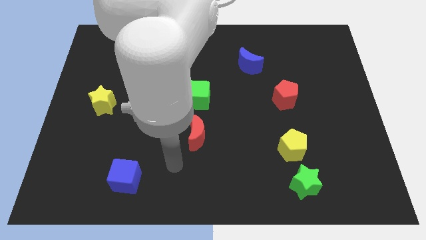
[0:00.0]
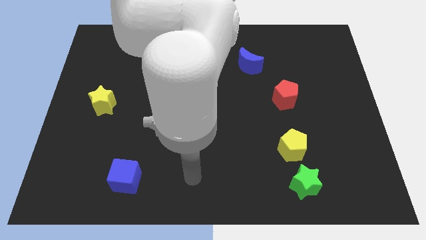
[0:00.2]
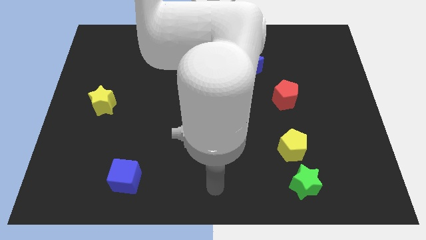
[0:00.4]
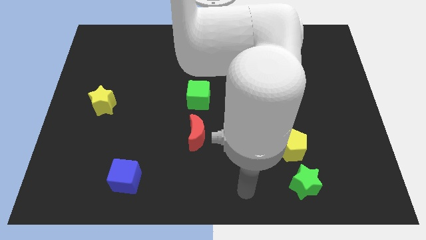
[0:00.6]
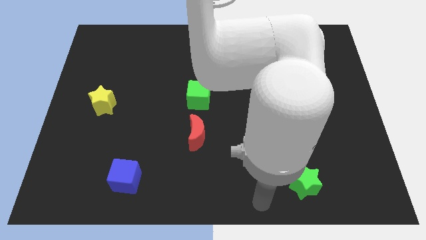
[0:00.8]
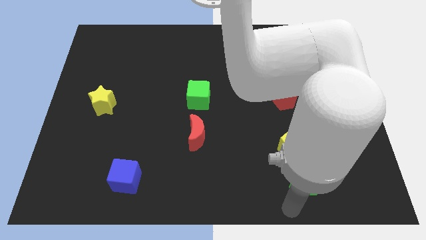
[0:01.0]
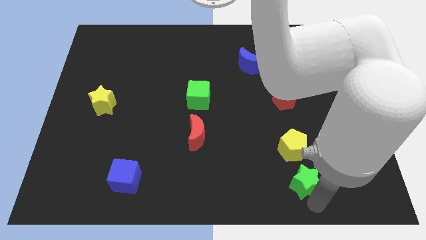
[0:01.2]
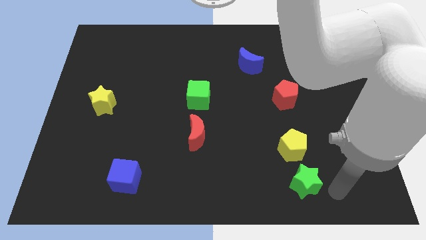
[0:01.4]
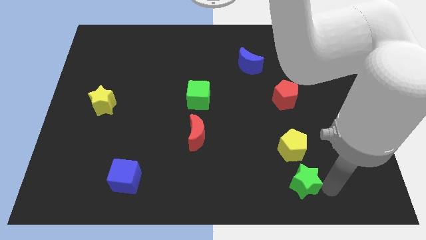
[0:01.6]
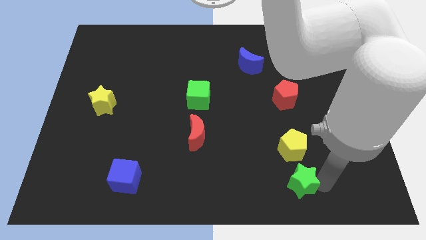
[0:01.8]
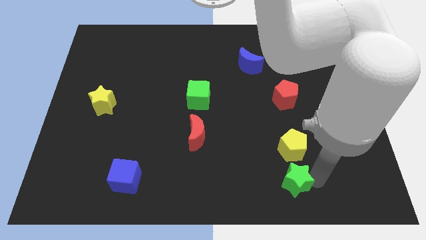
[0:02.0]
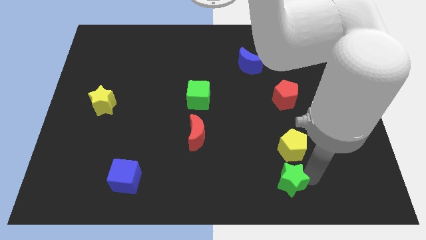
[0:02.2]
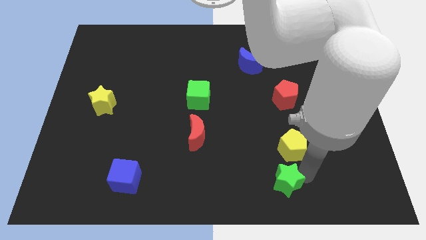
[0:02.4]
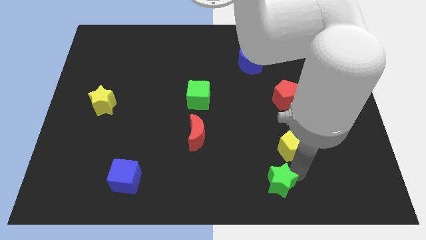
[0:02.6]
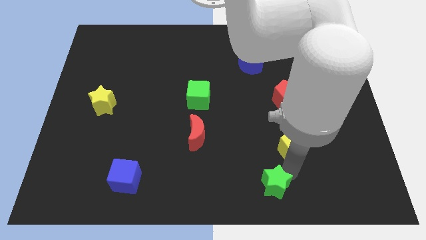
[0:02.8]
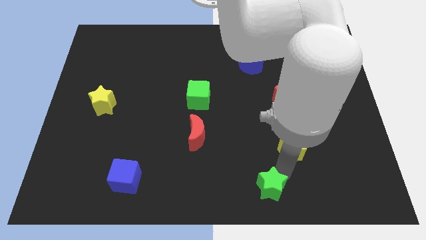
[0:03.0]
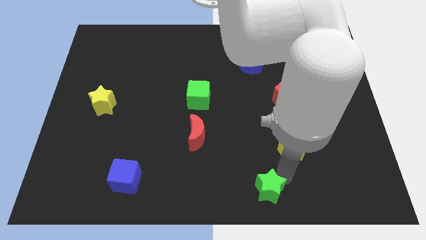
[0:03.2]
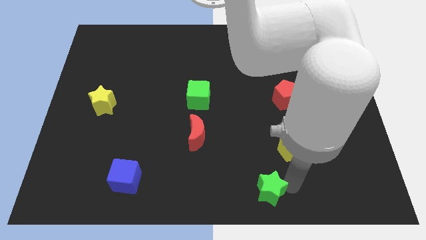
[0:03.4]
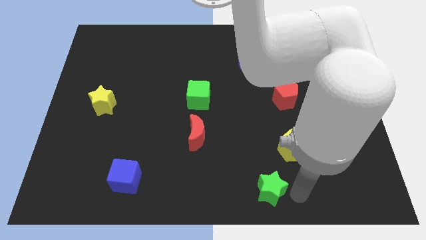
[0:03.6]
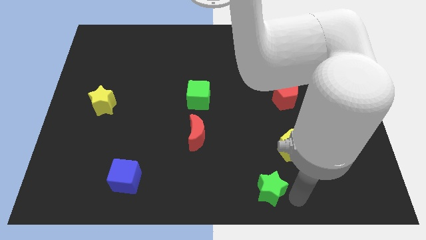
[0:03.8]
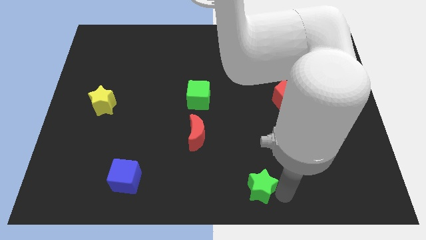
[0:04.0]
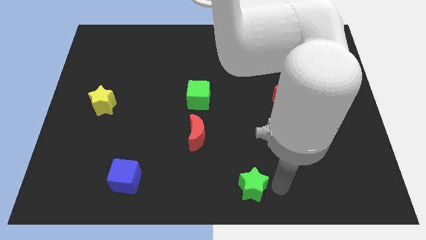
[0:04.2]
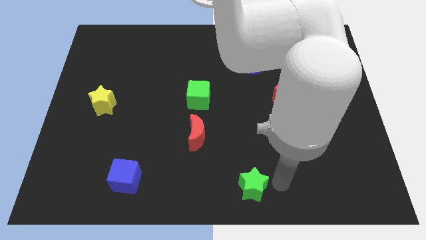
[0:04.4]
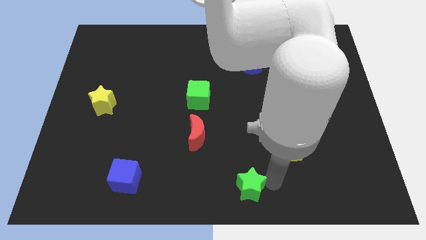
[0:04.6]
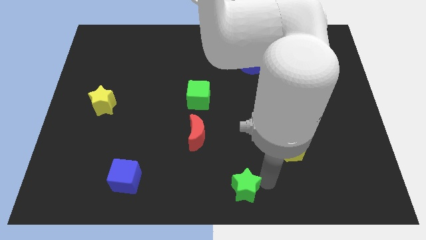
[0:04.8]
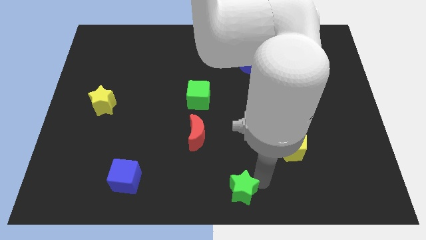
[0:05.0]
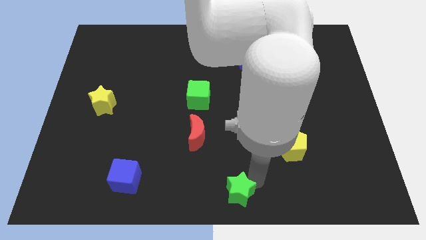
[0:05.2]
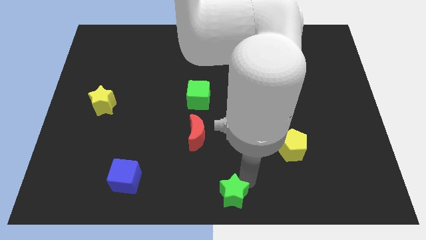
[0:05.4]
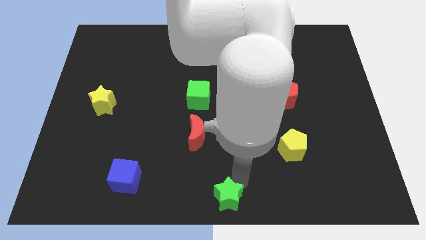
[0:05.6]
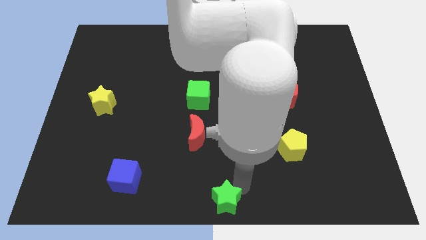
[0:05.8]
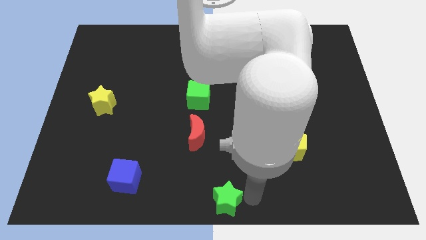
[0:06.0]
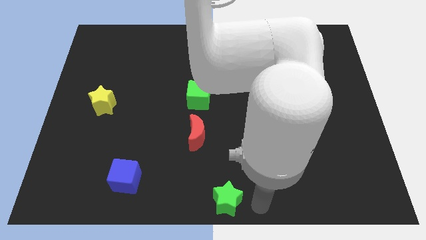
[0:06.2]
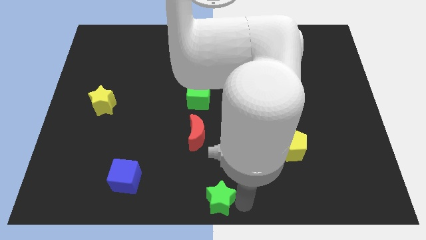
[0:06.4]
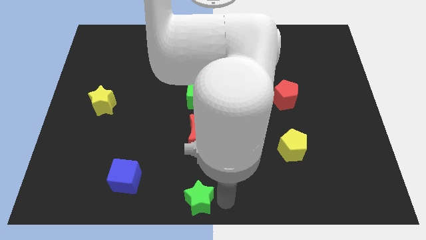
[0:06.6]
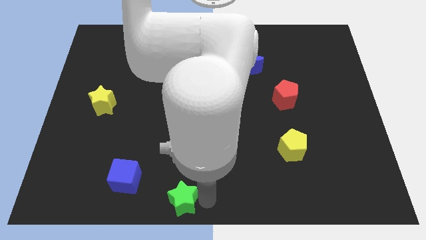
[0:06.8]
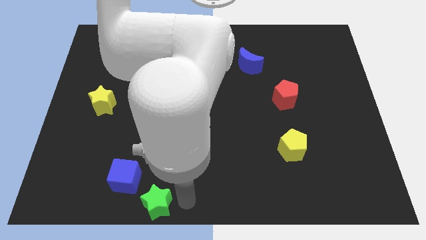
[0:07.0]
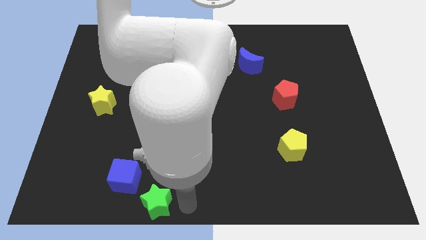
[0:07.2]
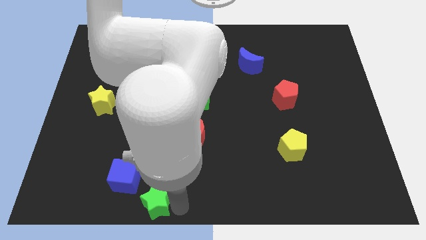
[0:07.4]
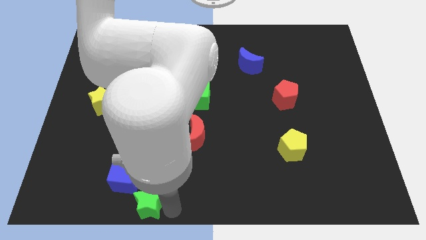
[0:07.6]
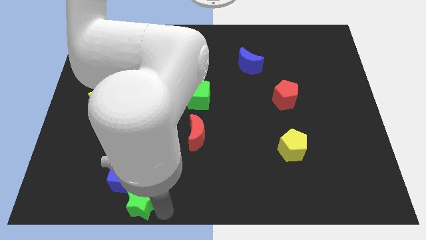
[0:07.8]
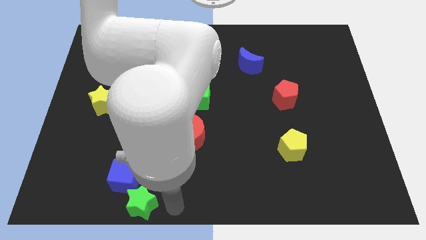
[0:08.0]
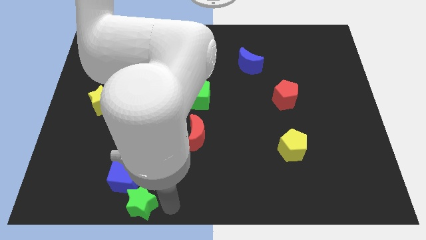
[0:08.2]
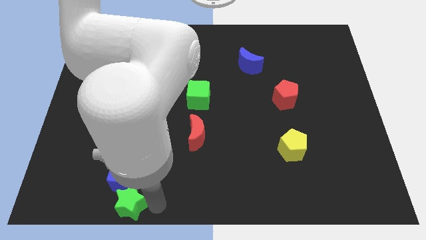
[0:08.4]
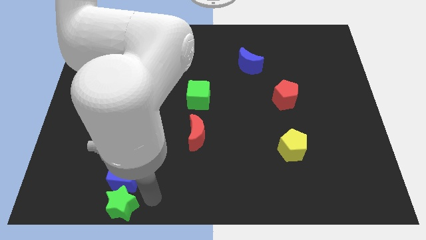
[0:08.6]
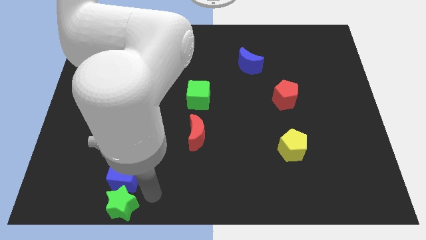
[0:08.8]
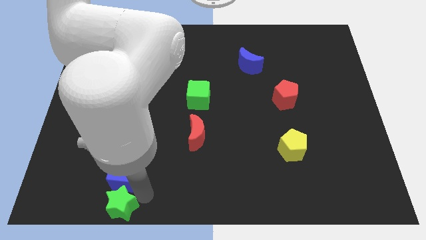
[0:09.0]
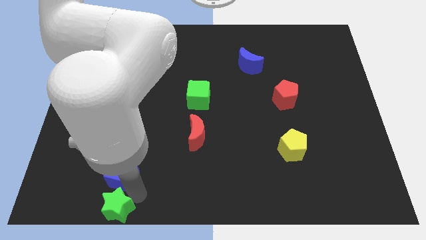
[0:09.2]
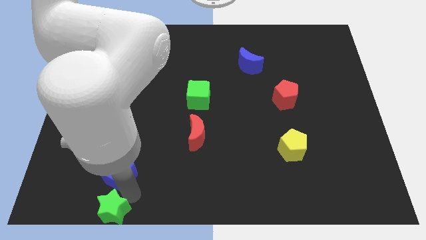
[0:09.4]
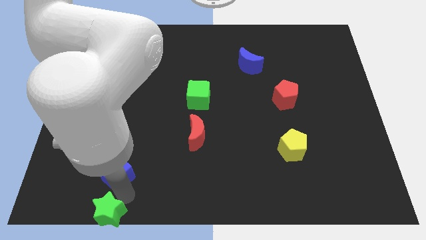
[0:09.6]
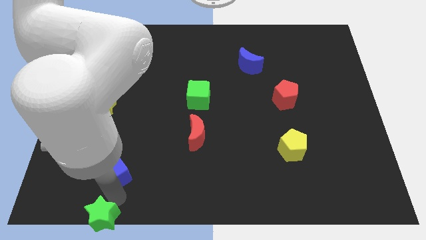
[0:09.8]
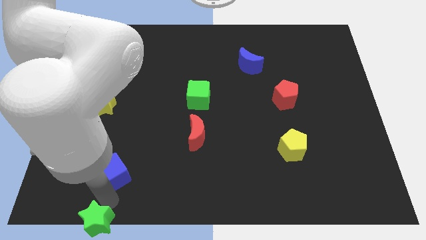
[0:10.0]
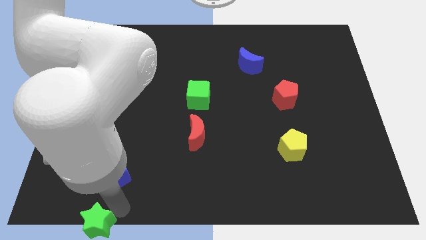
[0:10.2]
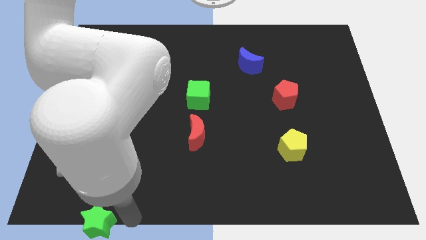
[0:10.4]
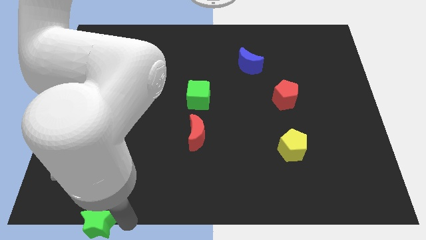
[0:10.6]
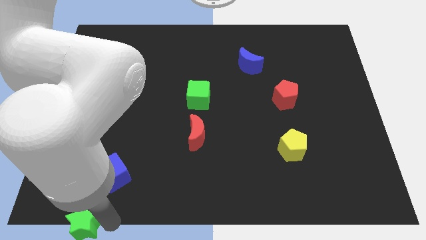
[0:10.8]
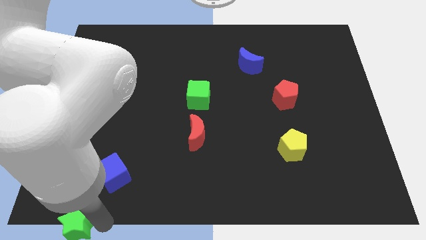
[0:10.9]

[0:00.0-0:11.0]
push the green star to the bottom left corner

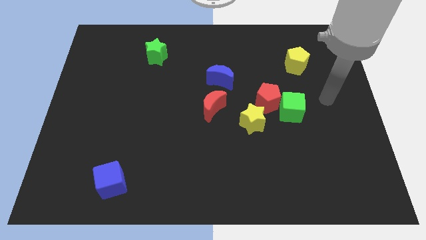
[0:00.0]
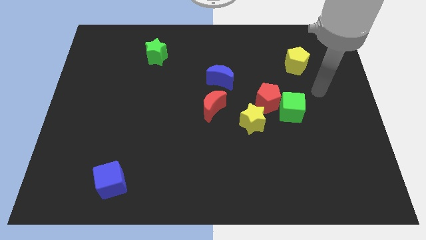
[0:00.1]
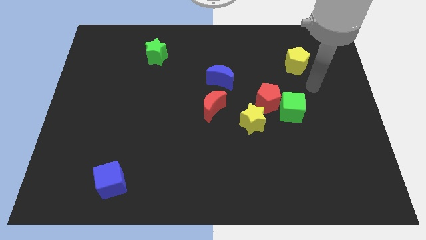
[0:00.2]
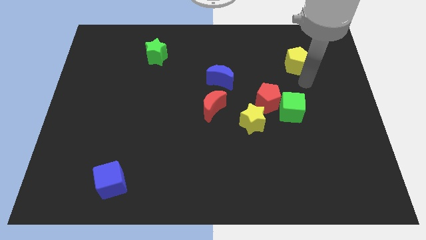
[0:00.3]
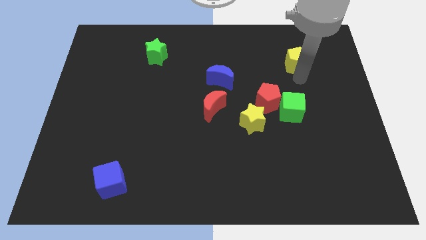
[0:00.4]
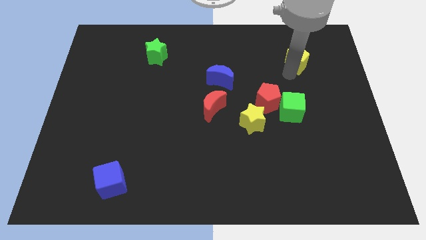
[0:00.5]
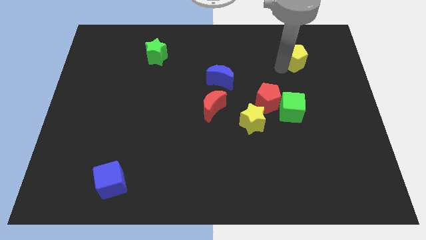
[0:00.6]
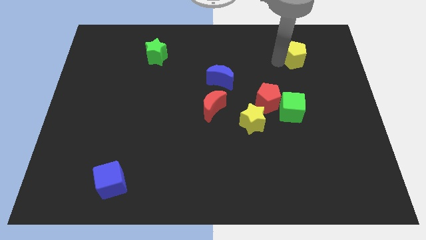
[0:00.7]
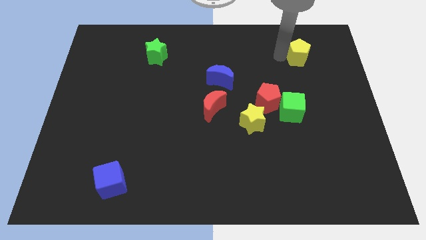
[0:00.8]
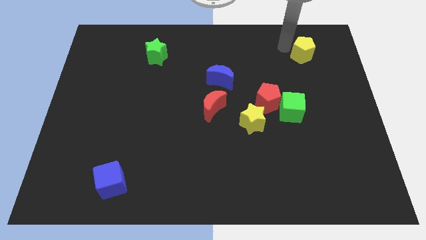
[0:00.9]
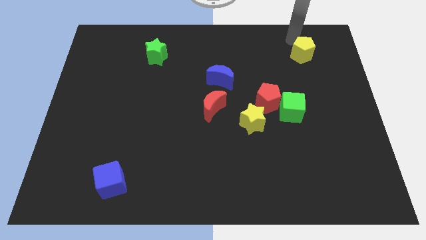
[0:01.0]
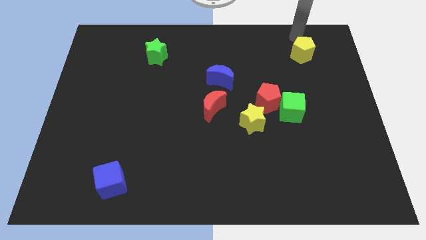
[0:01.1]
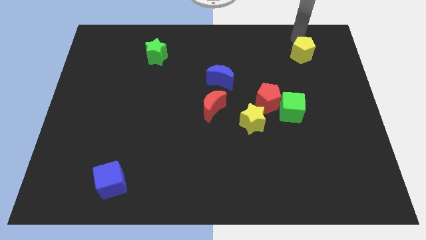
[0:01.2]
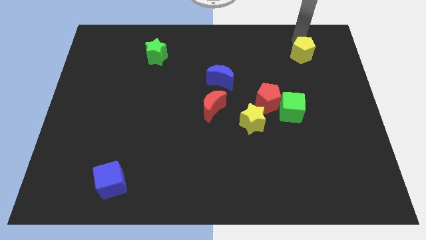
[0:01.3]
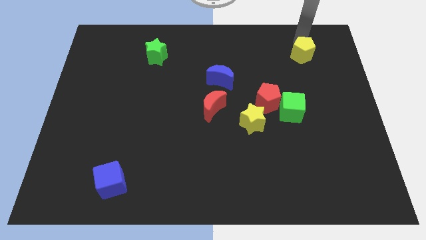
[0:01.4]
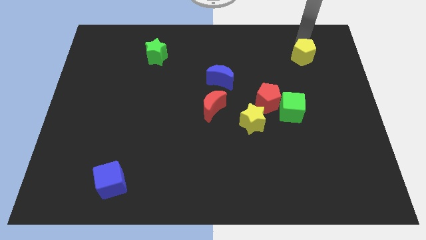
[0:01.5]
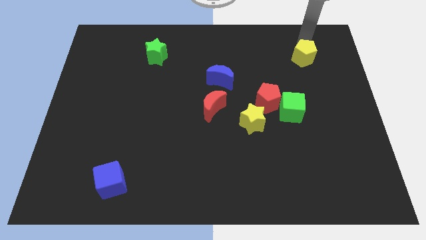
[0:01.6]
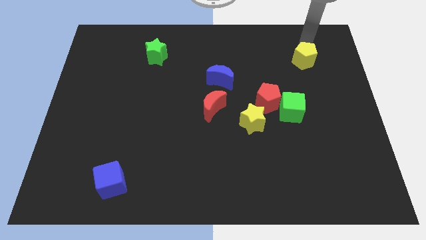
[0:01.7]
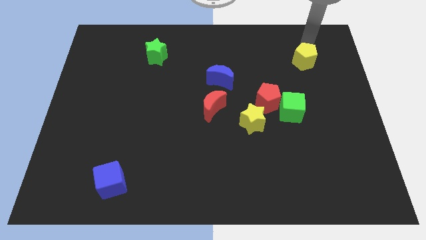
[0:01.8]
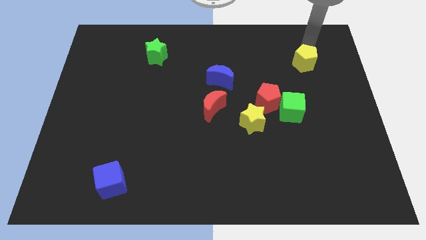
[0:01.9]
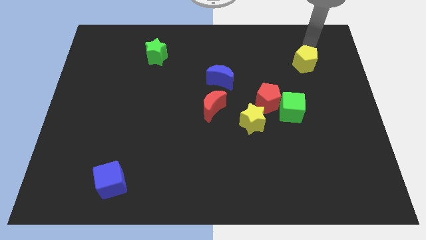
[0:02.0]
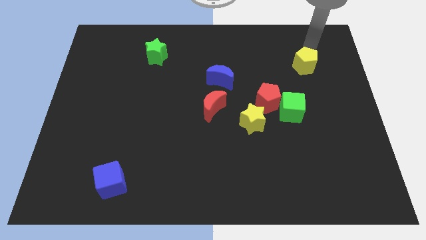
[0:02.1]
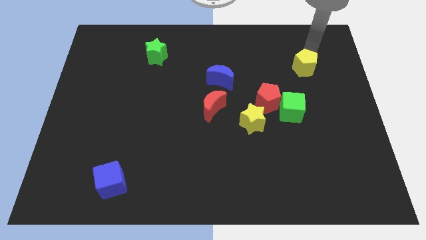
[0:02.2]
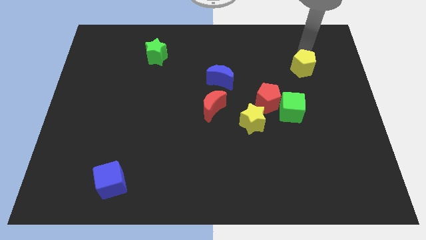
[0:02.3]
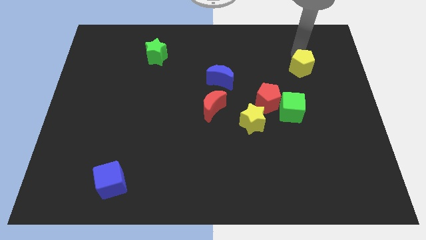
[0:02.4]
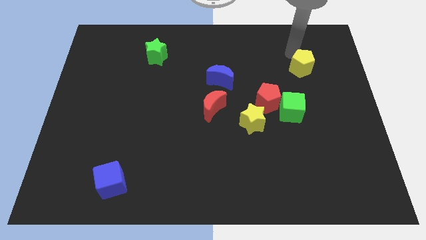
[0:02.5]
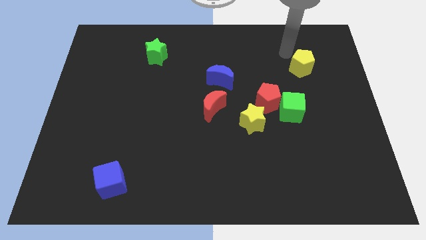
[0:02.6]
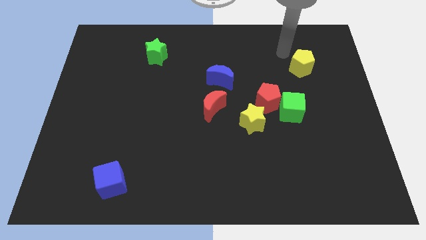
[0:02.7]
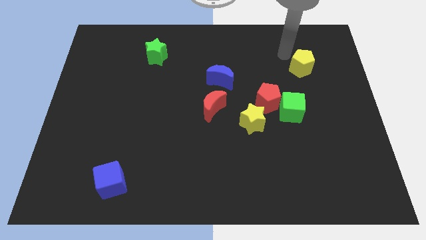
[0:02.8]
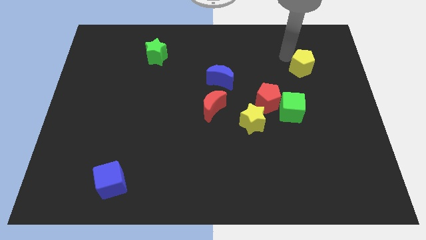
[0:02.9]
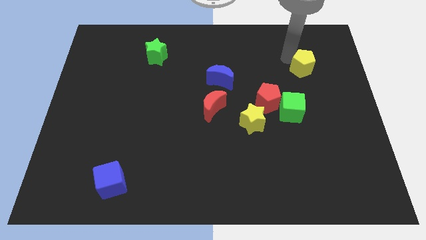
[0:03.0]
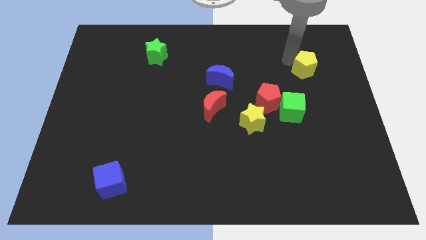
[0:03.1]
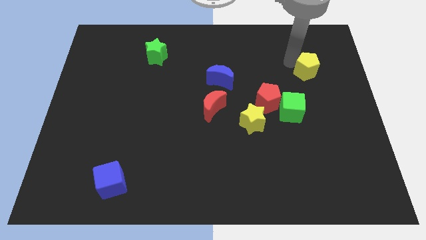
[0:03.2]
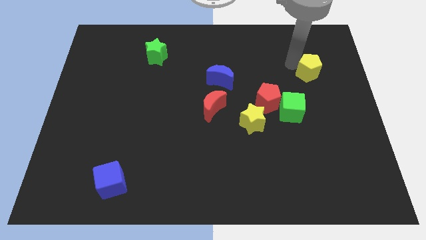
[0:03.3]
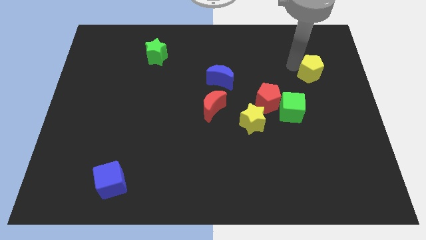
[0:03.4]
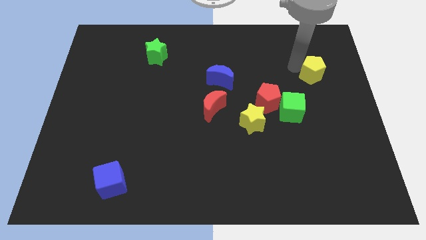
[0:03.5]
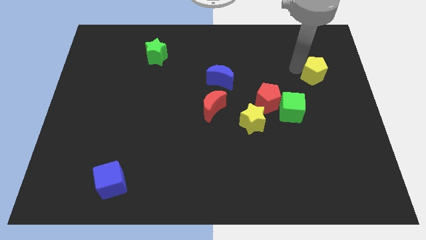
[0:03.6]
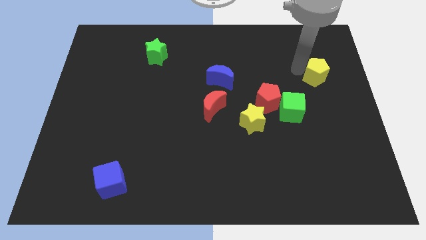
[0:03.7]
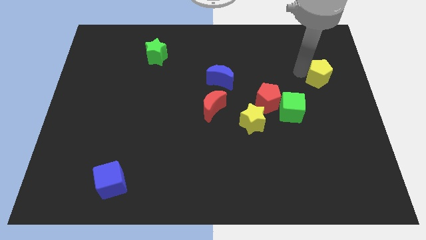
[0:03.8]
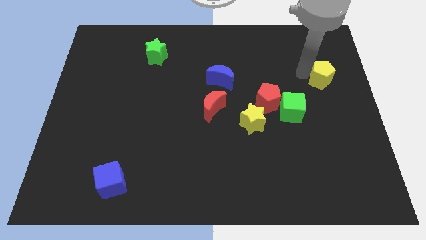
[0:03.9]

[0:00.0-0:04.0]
put the yellow pentagon to the right side
